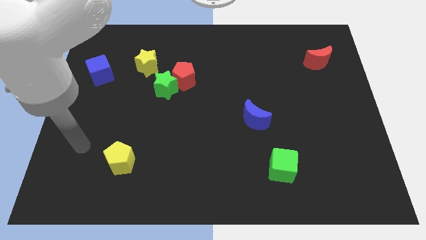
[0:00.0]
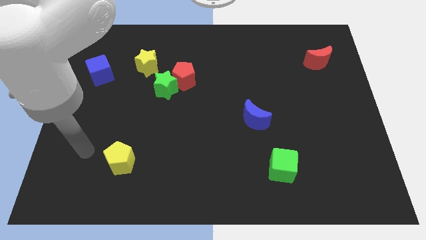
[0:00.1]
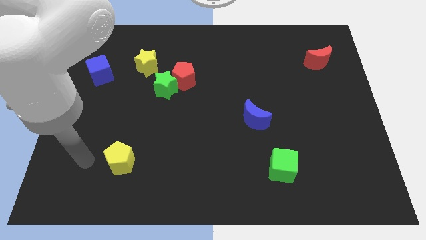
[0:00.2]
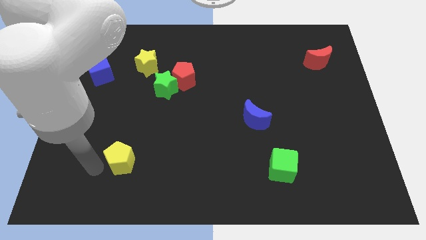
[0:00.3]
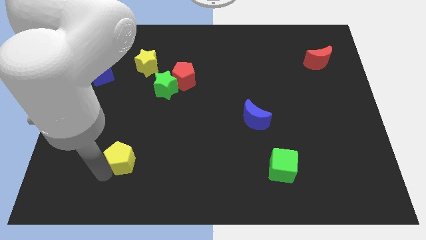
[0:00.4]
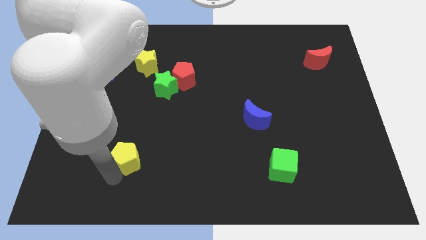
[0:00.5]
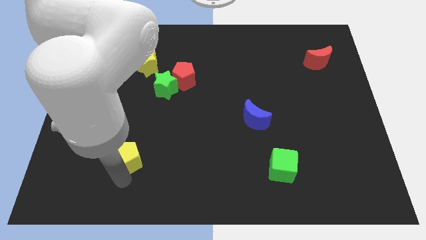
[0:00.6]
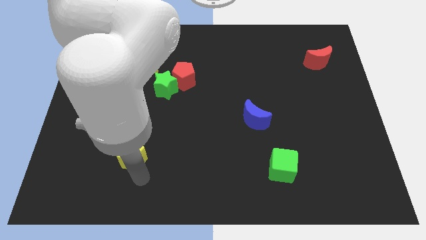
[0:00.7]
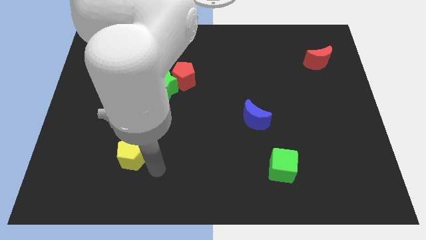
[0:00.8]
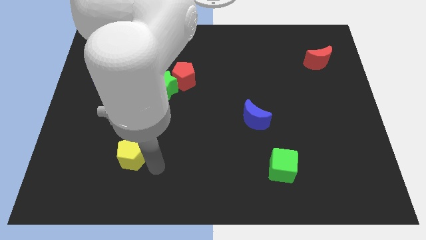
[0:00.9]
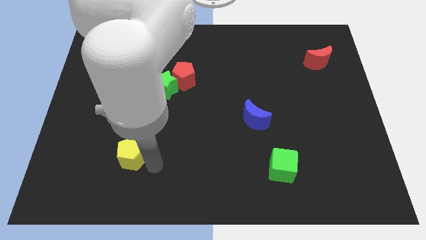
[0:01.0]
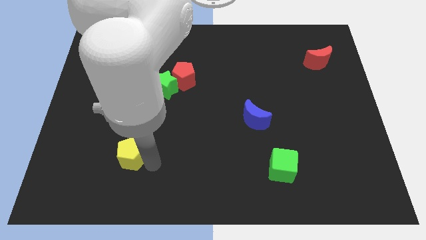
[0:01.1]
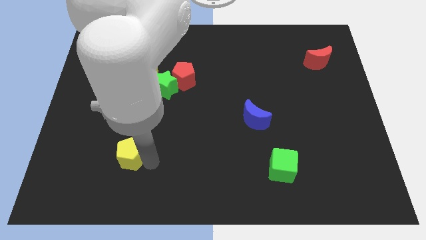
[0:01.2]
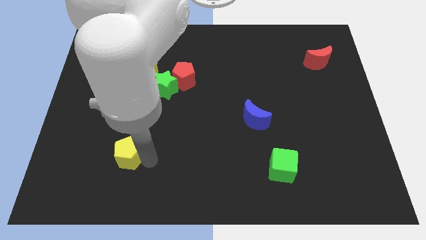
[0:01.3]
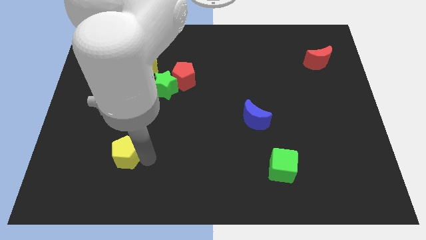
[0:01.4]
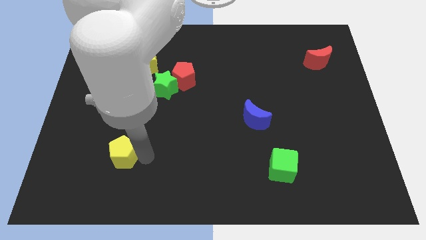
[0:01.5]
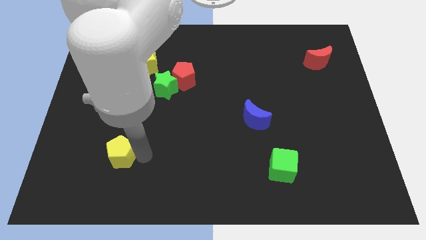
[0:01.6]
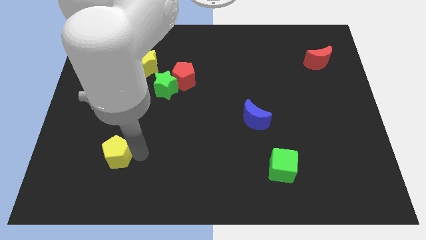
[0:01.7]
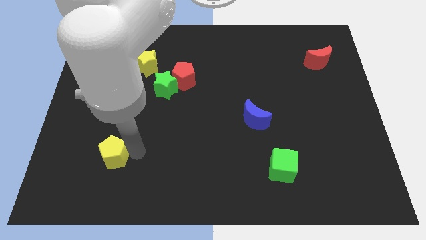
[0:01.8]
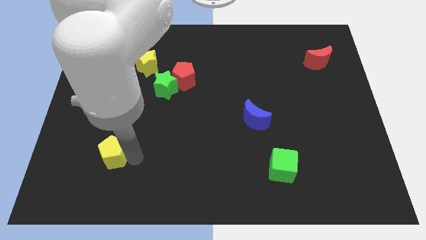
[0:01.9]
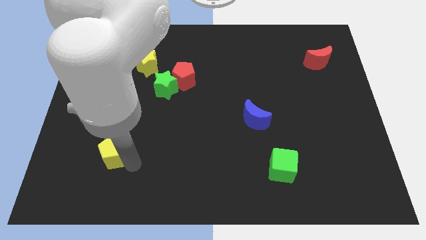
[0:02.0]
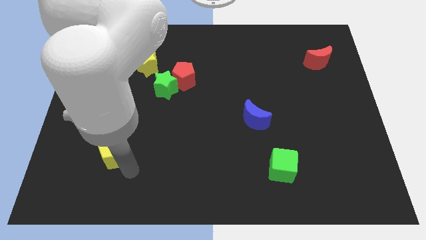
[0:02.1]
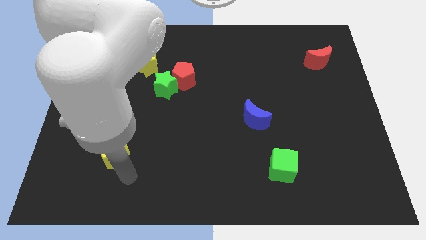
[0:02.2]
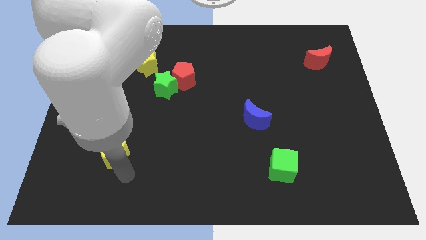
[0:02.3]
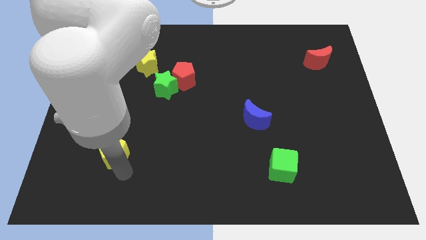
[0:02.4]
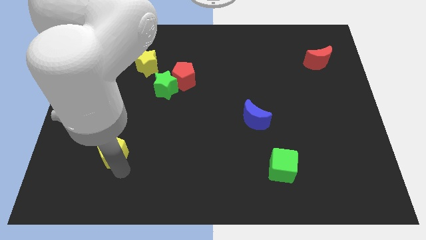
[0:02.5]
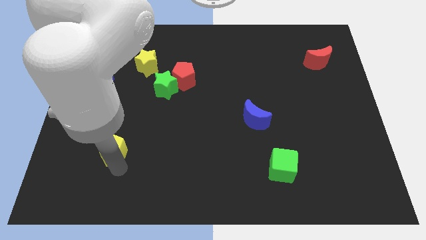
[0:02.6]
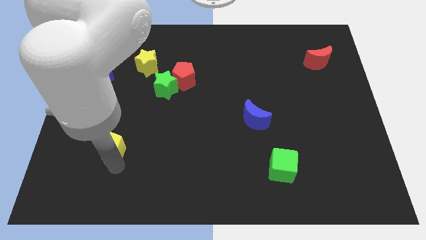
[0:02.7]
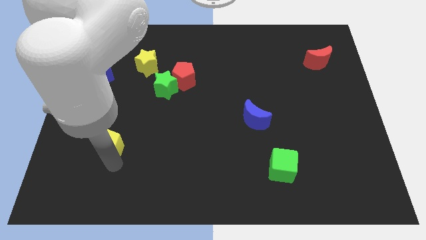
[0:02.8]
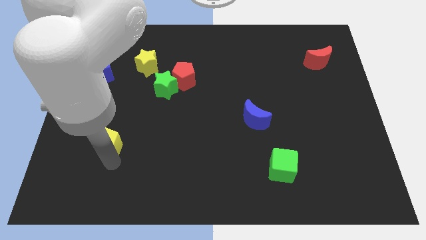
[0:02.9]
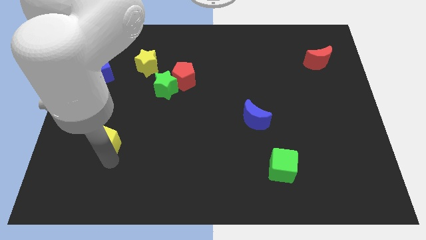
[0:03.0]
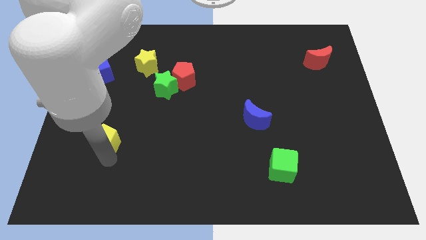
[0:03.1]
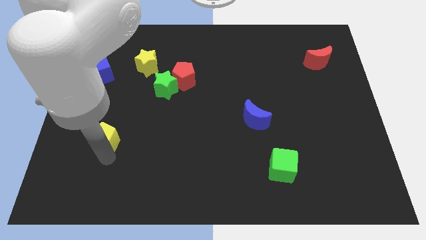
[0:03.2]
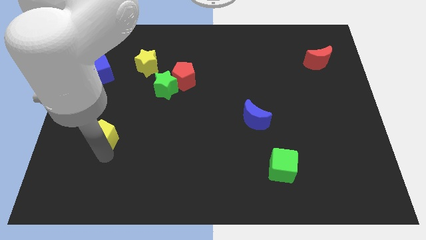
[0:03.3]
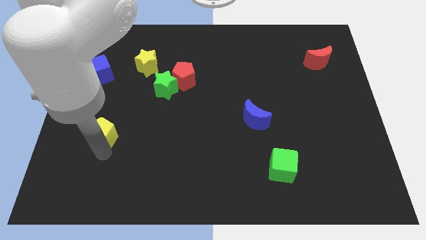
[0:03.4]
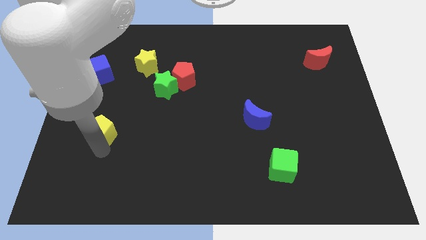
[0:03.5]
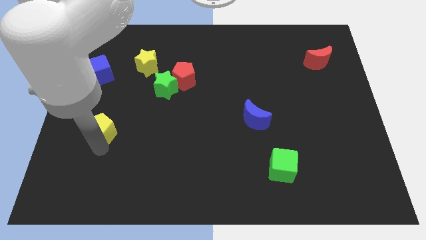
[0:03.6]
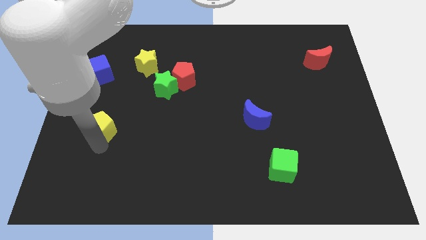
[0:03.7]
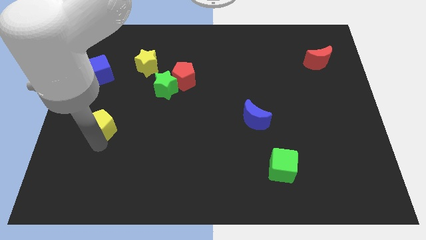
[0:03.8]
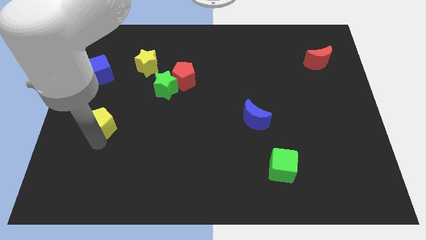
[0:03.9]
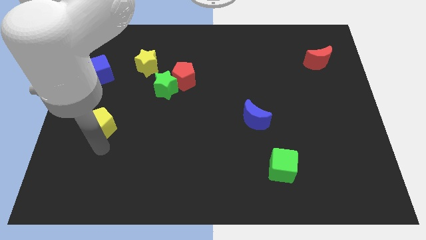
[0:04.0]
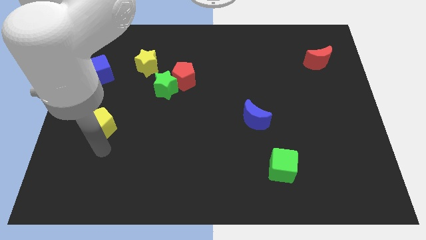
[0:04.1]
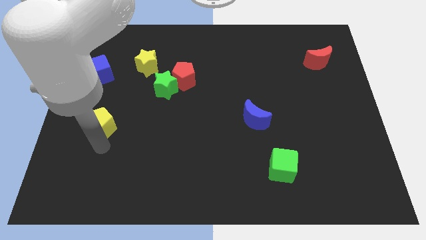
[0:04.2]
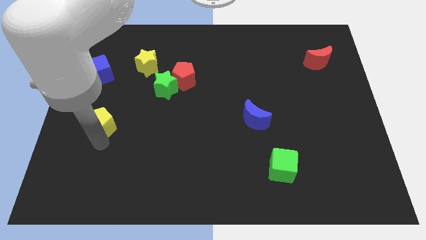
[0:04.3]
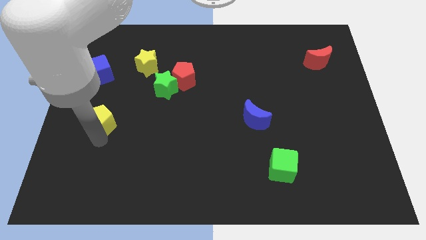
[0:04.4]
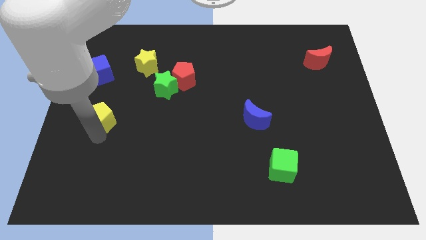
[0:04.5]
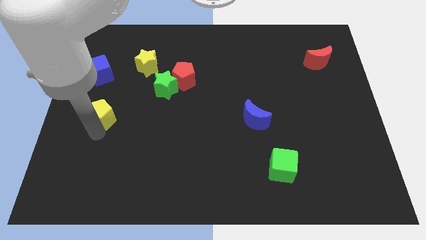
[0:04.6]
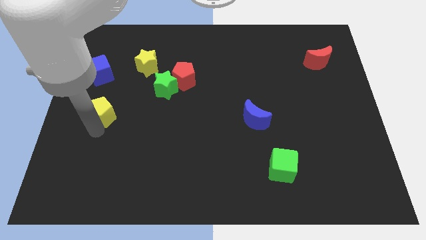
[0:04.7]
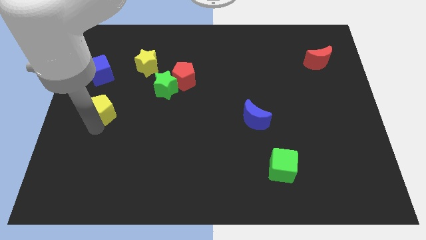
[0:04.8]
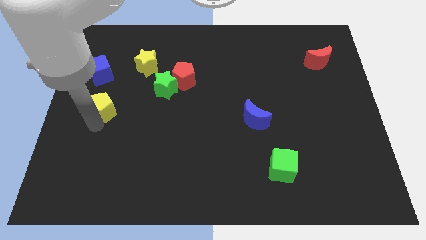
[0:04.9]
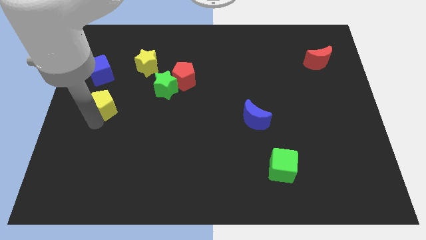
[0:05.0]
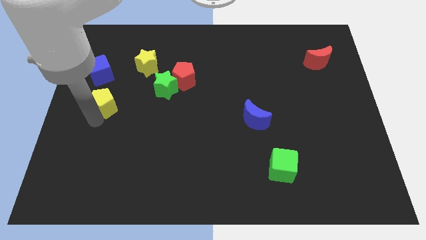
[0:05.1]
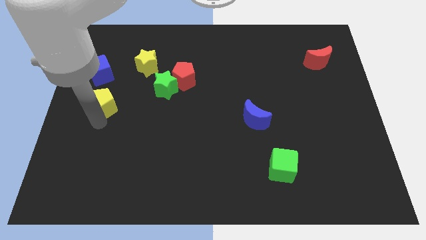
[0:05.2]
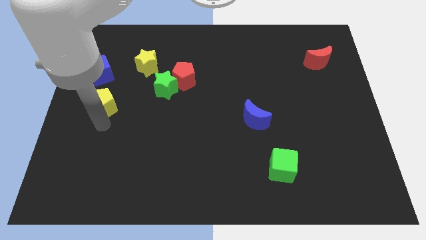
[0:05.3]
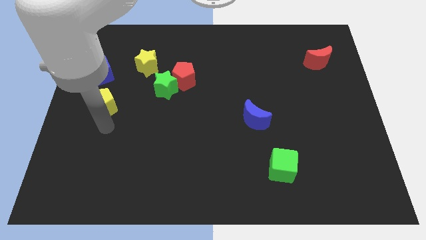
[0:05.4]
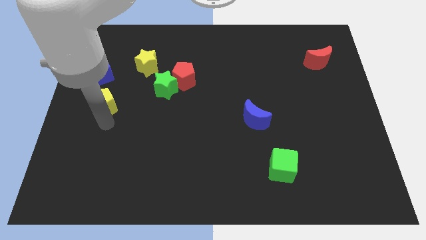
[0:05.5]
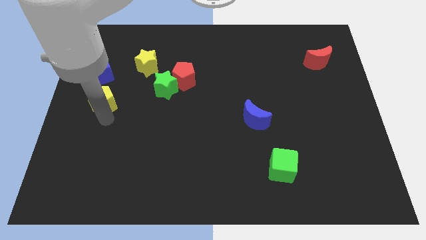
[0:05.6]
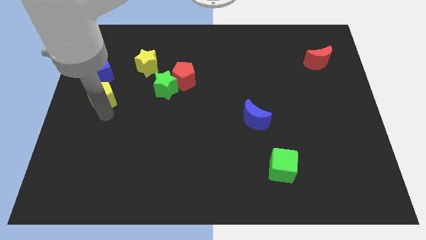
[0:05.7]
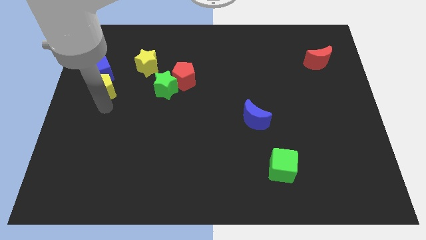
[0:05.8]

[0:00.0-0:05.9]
push the yellow pentagon to the blue cube

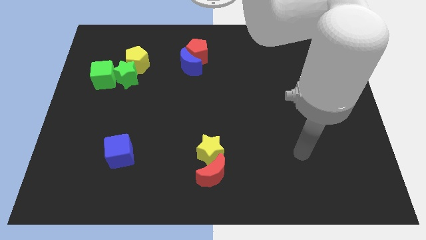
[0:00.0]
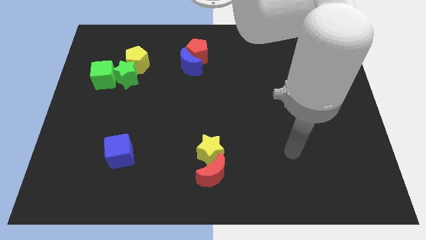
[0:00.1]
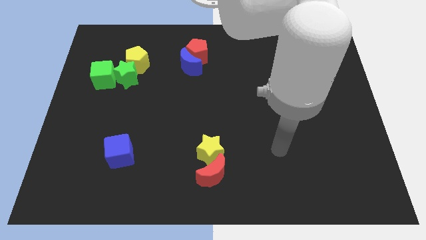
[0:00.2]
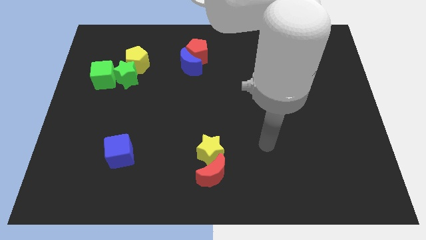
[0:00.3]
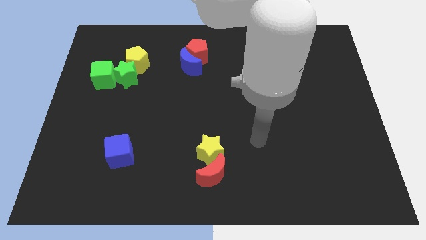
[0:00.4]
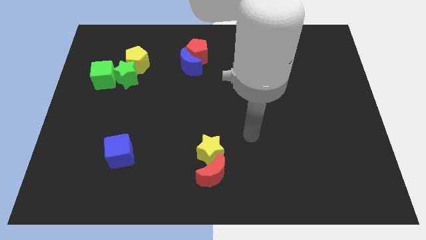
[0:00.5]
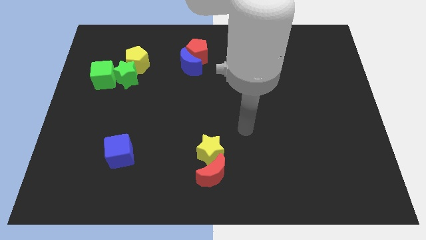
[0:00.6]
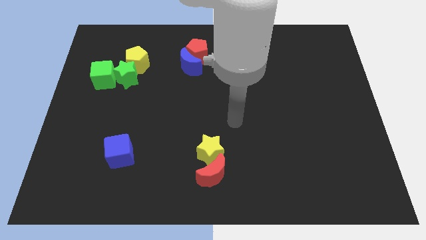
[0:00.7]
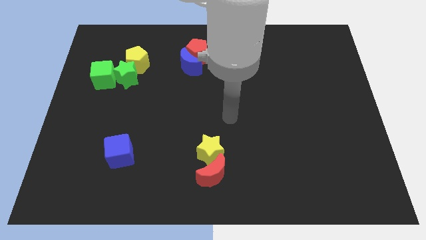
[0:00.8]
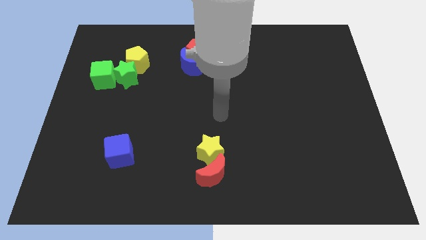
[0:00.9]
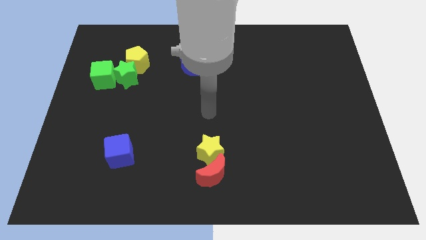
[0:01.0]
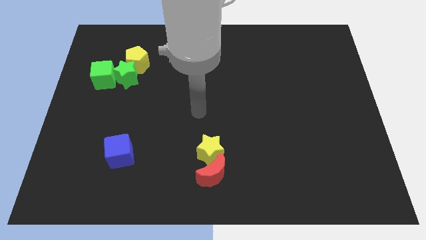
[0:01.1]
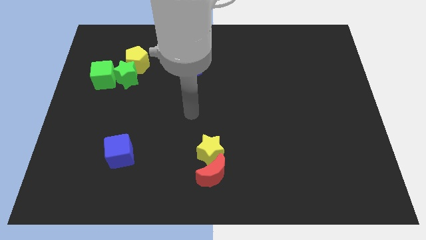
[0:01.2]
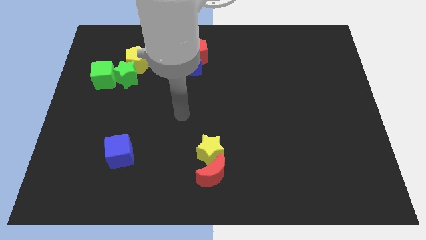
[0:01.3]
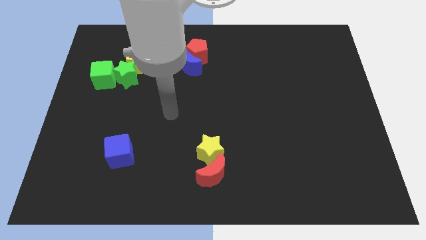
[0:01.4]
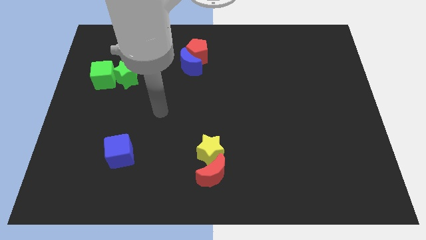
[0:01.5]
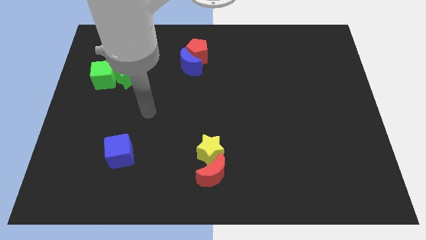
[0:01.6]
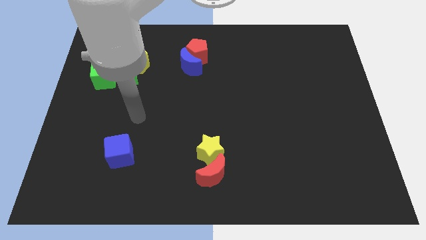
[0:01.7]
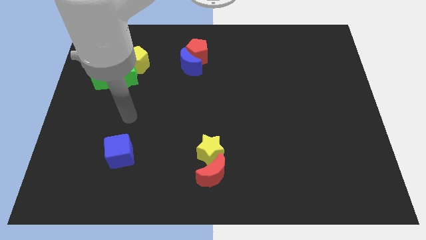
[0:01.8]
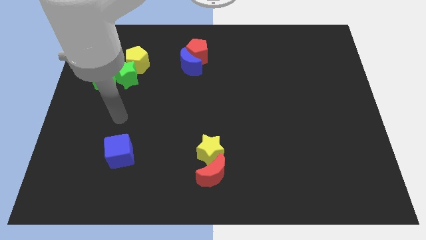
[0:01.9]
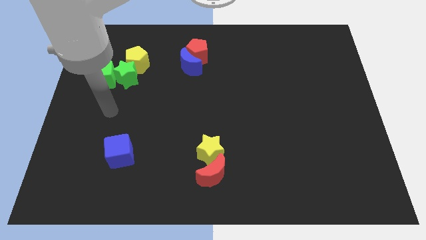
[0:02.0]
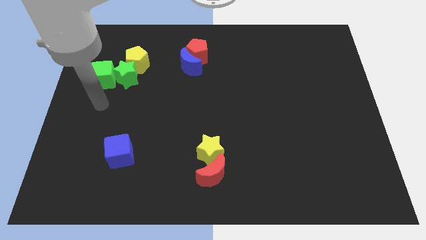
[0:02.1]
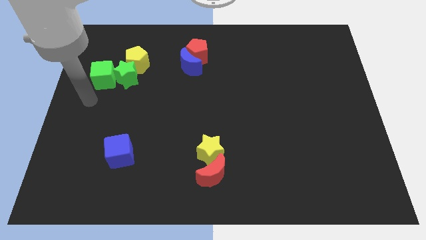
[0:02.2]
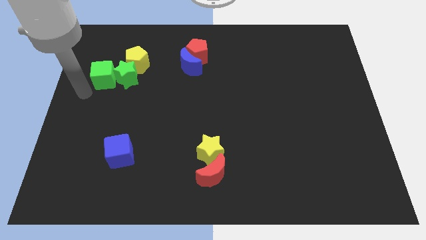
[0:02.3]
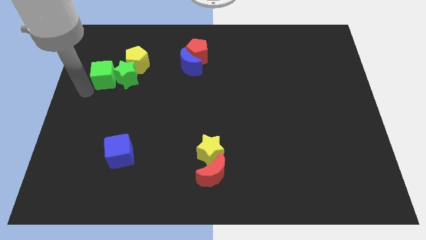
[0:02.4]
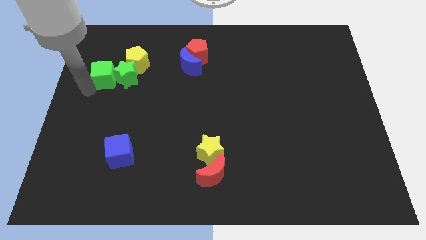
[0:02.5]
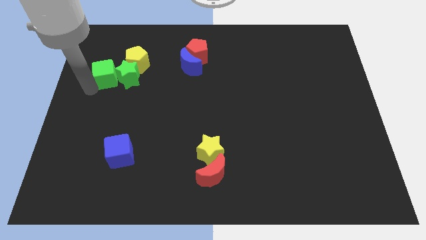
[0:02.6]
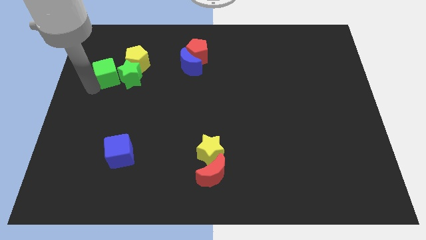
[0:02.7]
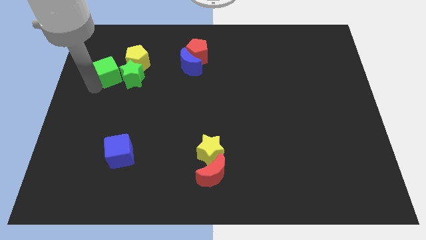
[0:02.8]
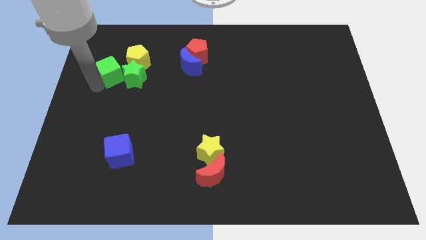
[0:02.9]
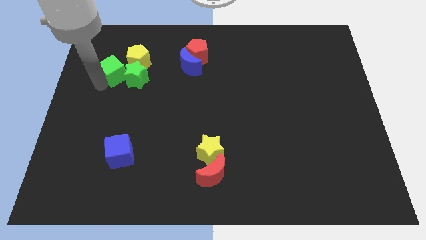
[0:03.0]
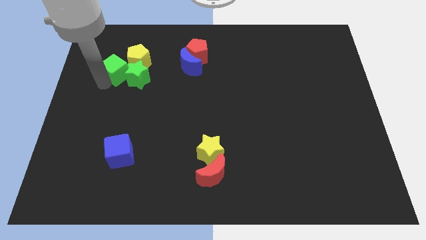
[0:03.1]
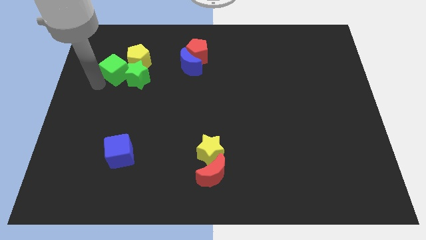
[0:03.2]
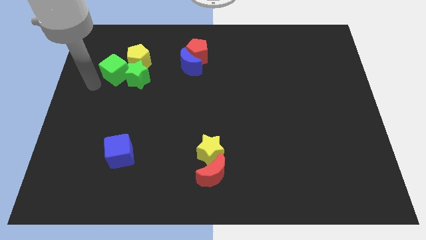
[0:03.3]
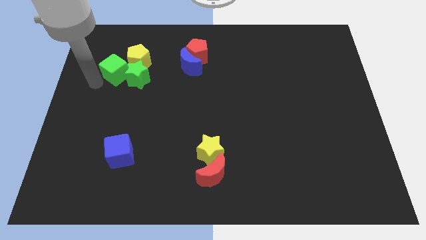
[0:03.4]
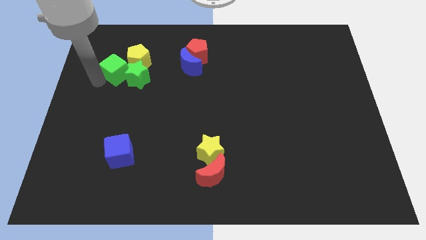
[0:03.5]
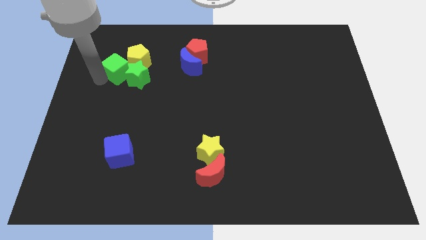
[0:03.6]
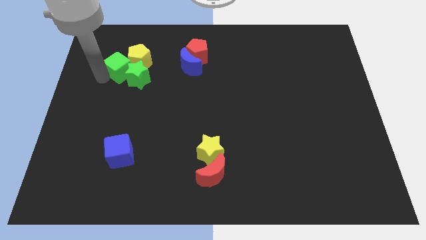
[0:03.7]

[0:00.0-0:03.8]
put the green cube next to the yellow pentagon
